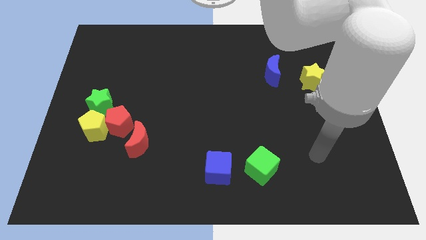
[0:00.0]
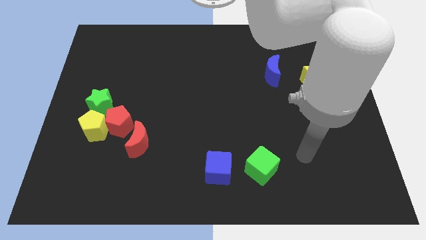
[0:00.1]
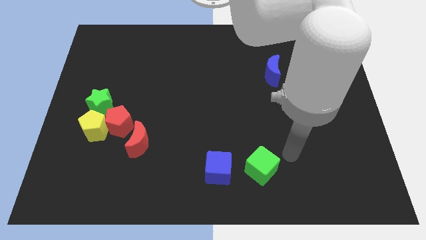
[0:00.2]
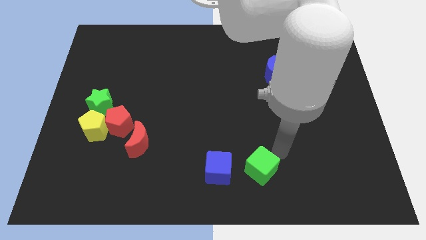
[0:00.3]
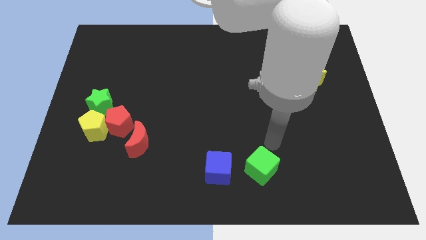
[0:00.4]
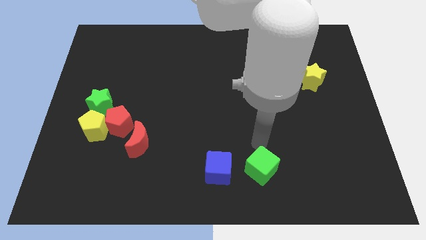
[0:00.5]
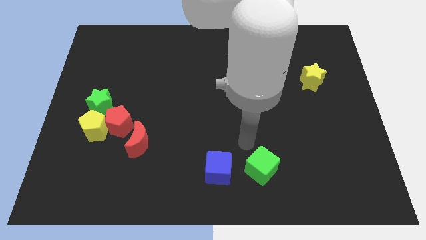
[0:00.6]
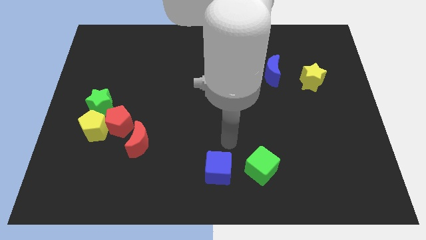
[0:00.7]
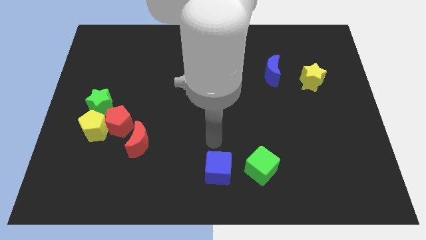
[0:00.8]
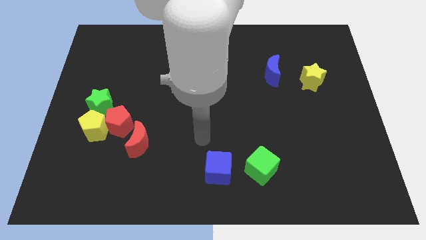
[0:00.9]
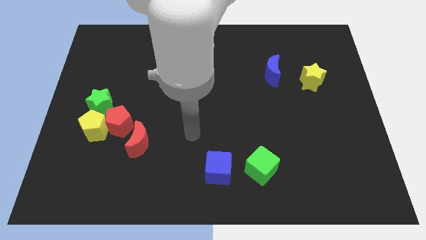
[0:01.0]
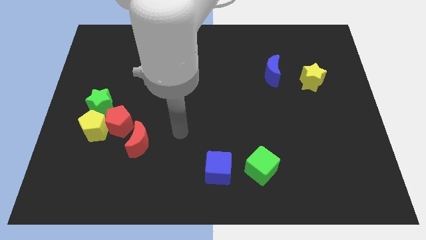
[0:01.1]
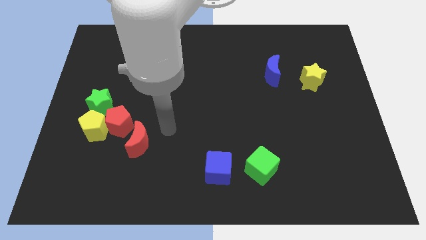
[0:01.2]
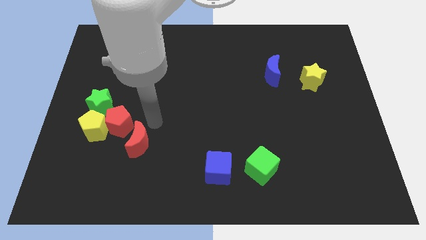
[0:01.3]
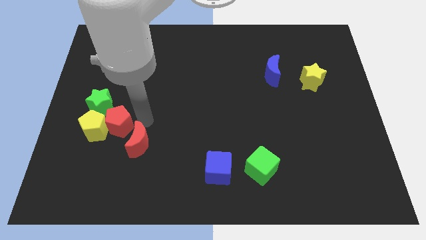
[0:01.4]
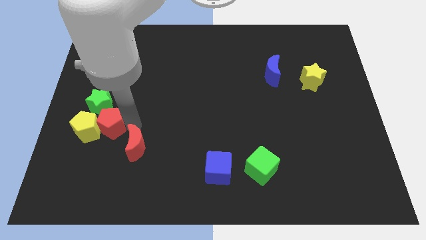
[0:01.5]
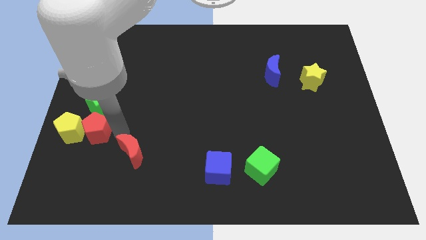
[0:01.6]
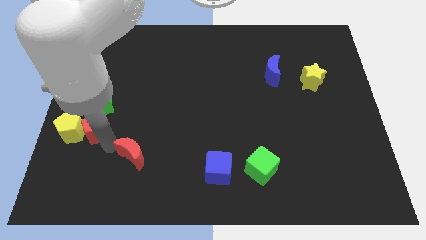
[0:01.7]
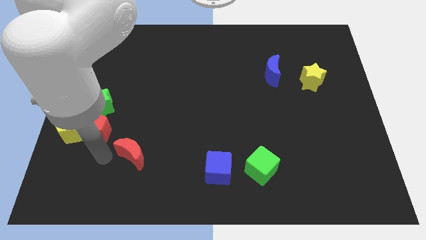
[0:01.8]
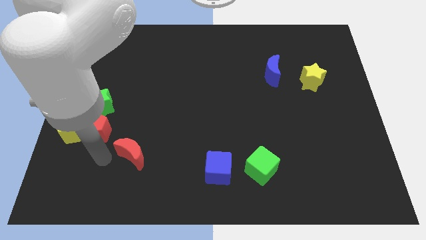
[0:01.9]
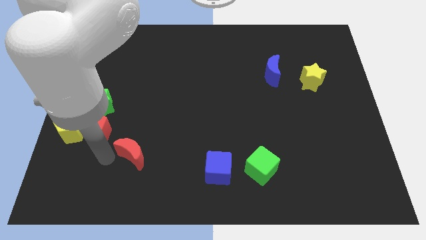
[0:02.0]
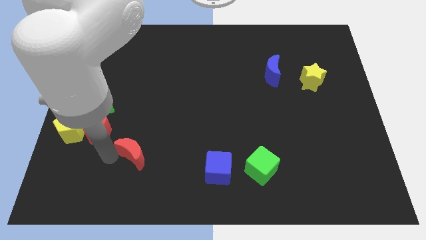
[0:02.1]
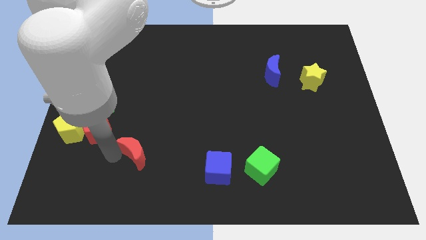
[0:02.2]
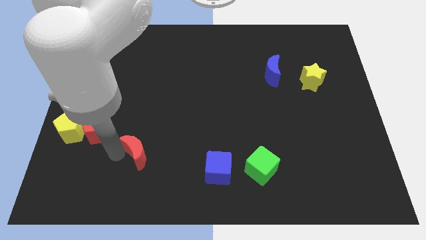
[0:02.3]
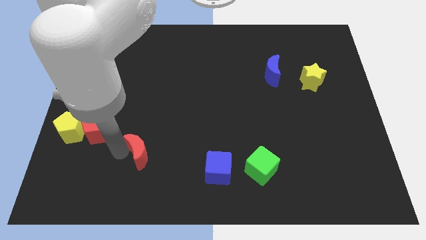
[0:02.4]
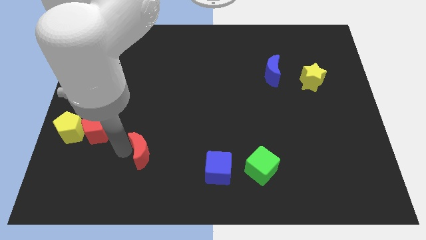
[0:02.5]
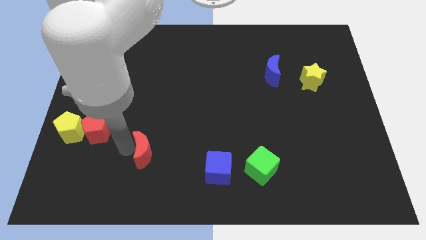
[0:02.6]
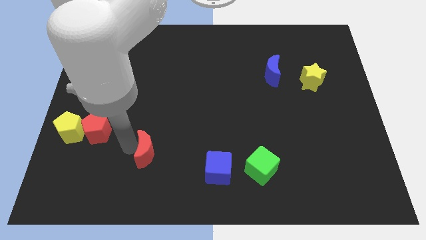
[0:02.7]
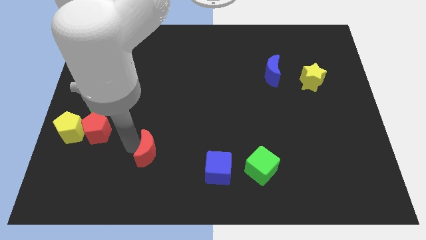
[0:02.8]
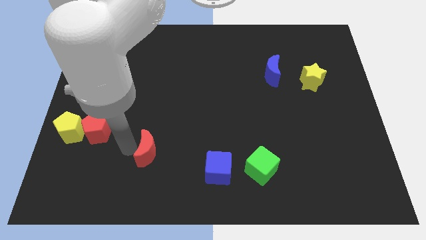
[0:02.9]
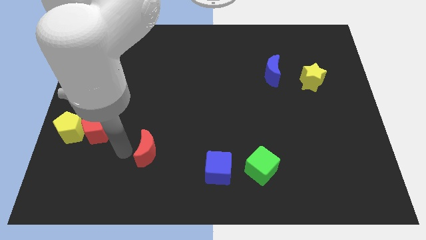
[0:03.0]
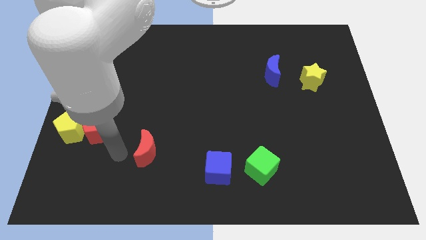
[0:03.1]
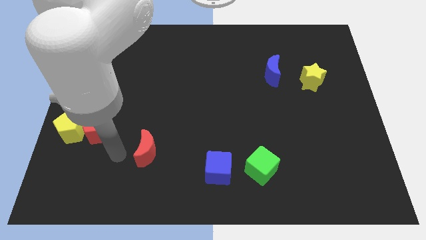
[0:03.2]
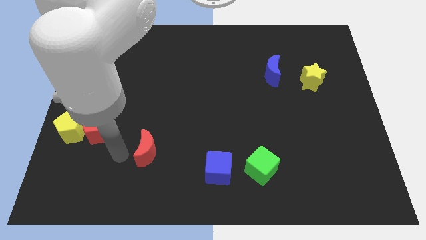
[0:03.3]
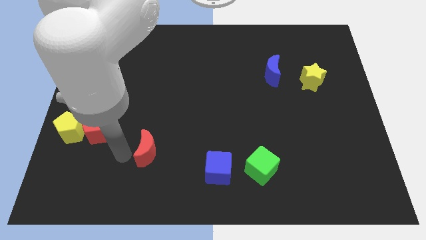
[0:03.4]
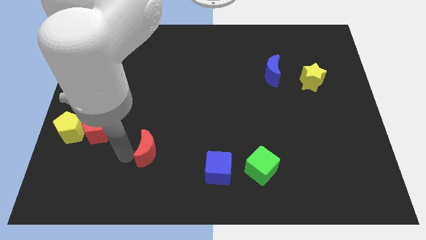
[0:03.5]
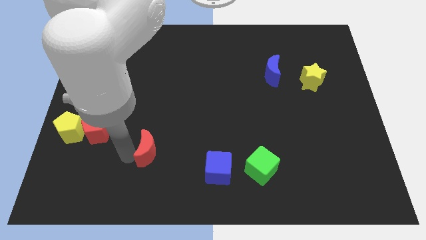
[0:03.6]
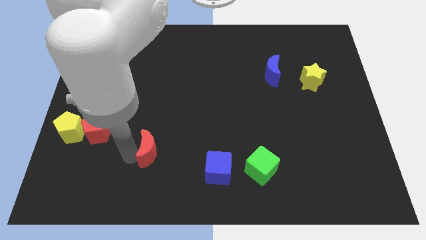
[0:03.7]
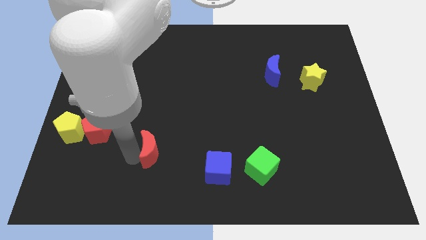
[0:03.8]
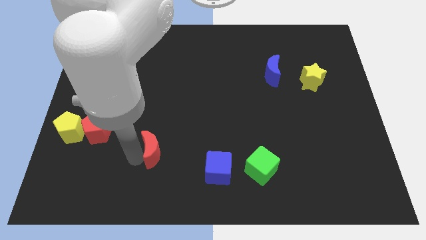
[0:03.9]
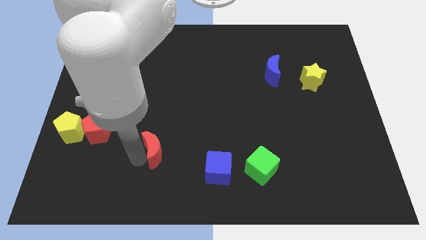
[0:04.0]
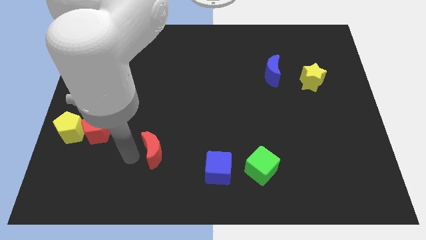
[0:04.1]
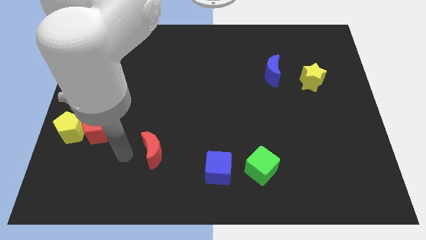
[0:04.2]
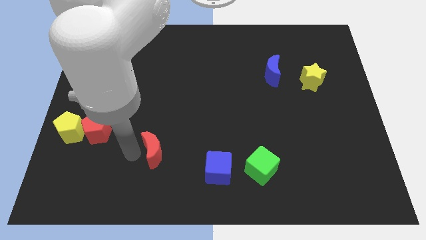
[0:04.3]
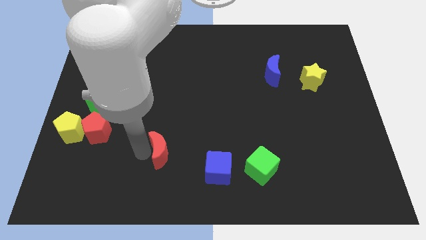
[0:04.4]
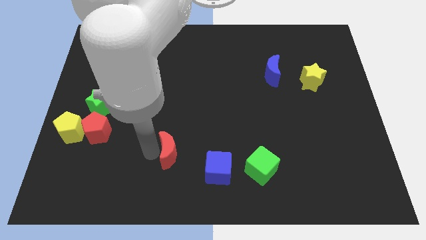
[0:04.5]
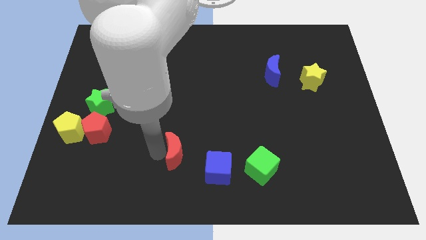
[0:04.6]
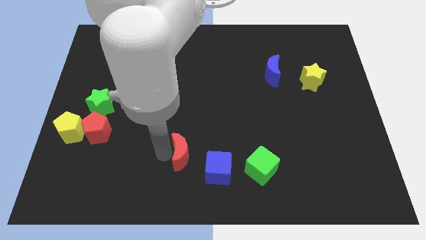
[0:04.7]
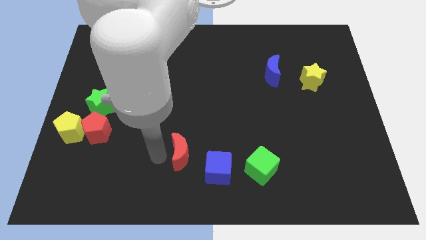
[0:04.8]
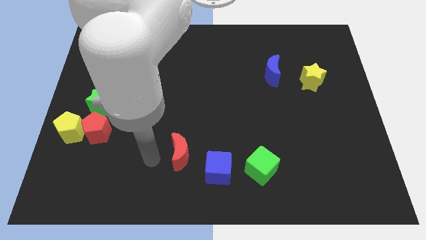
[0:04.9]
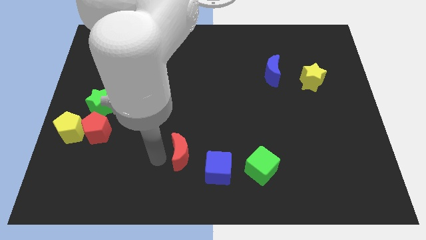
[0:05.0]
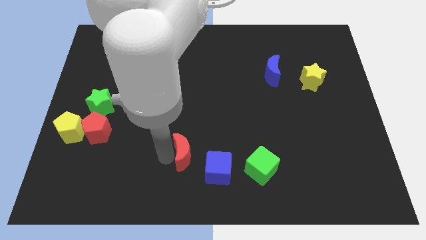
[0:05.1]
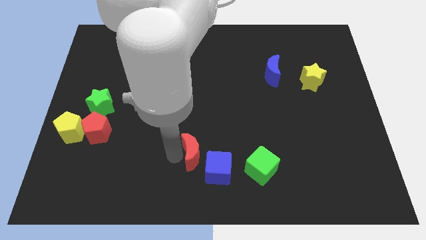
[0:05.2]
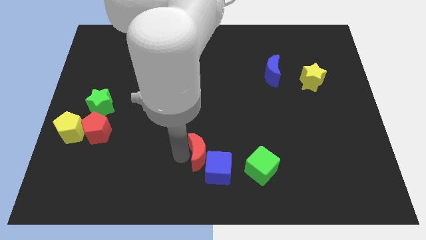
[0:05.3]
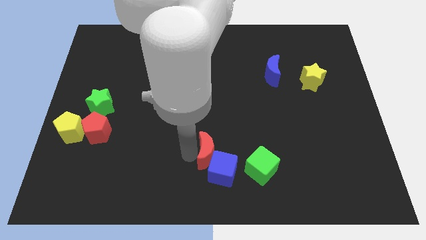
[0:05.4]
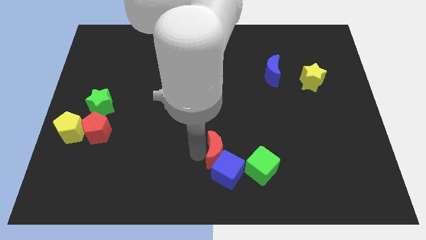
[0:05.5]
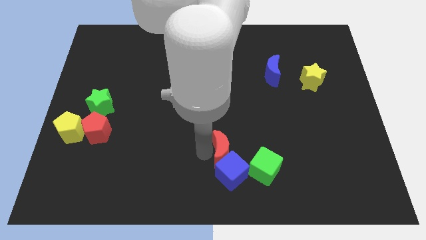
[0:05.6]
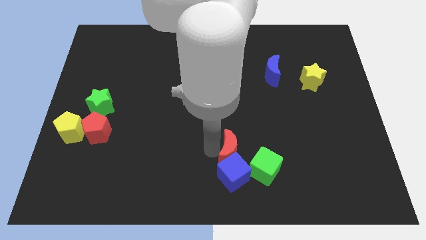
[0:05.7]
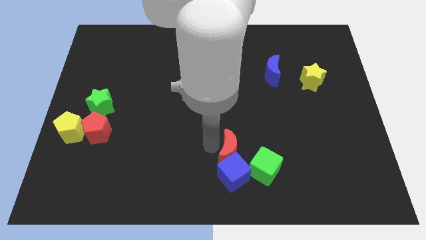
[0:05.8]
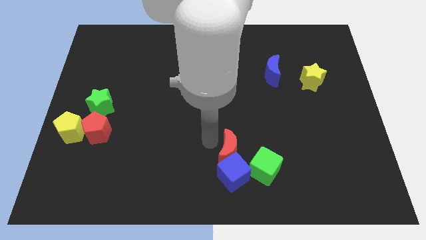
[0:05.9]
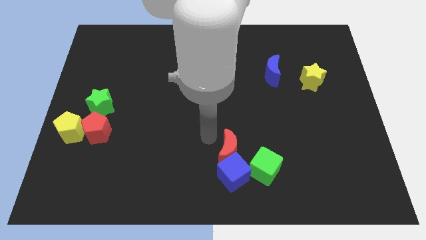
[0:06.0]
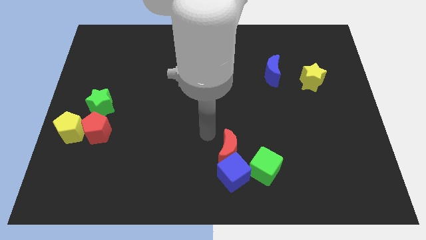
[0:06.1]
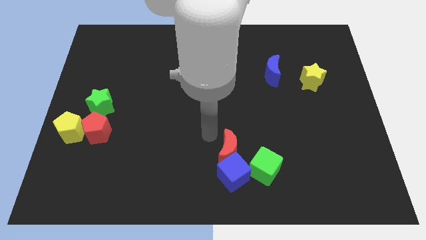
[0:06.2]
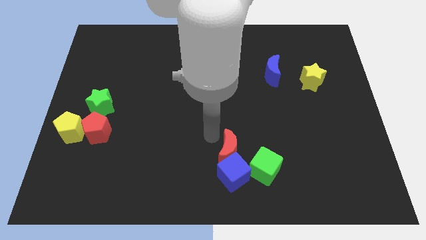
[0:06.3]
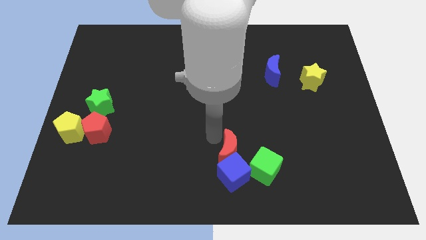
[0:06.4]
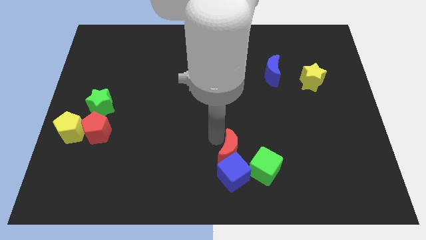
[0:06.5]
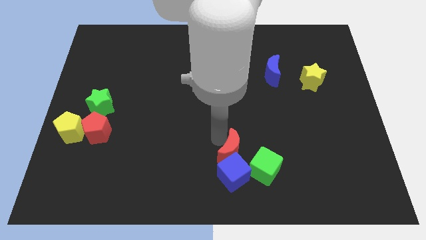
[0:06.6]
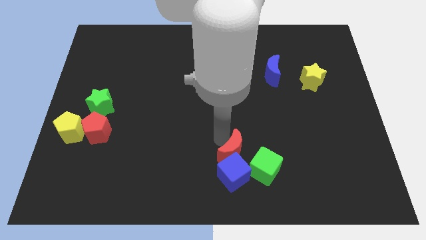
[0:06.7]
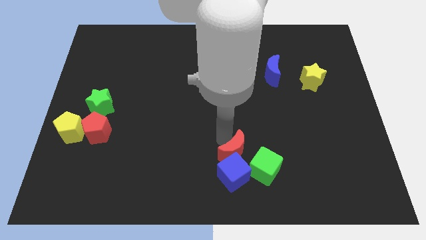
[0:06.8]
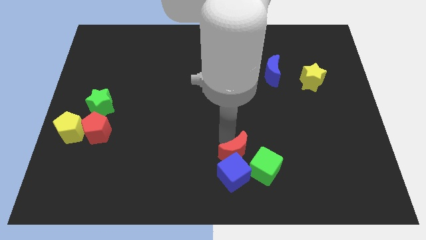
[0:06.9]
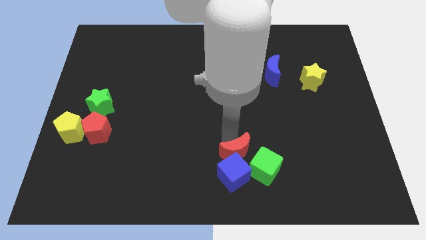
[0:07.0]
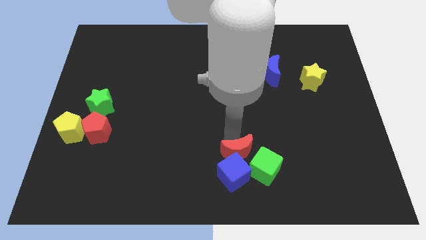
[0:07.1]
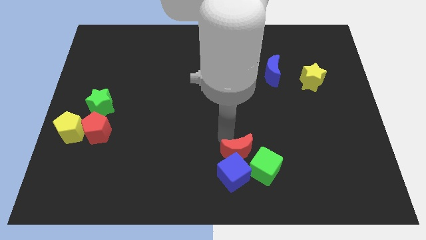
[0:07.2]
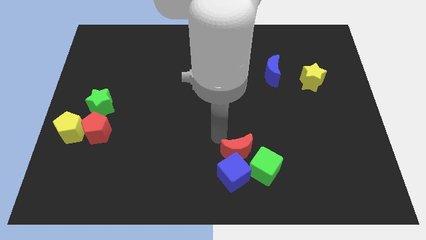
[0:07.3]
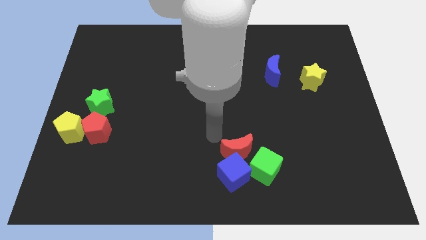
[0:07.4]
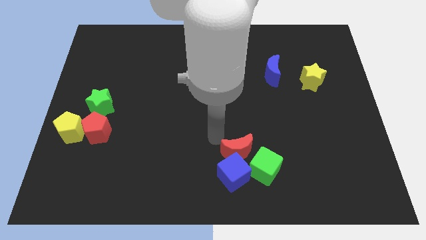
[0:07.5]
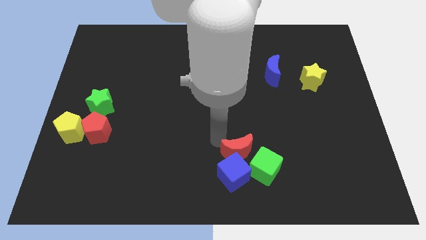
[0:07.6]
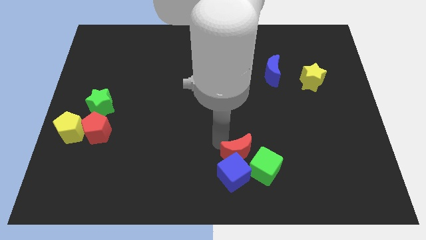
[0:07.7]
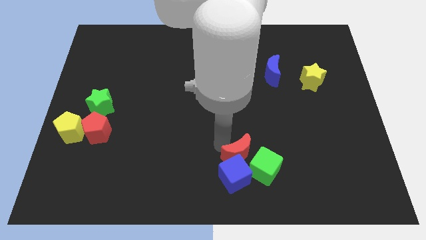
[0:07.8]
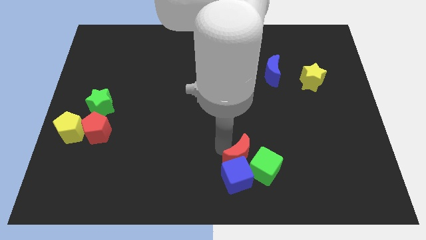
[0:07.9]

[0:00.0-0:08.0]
move the red moon next to the green cube

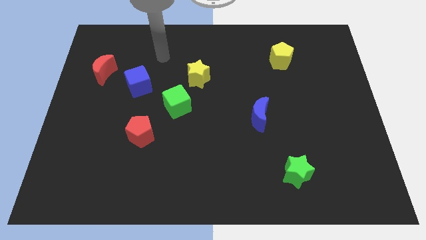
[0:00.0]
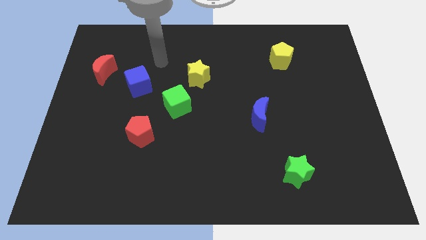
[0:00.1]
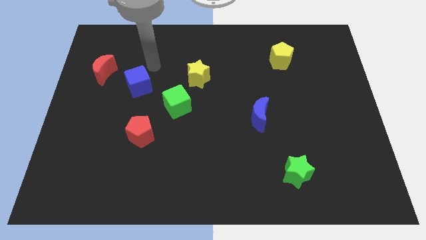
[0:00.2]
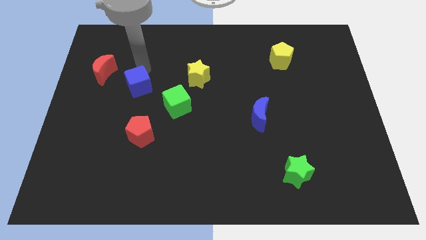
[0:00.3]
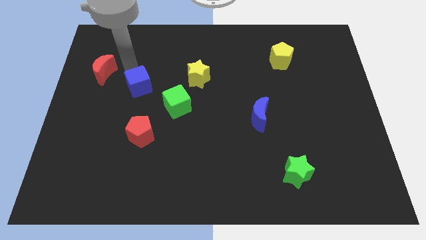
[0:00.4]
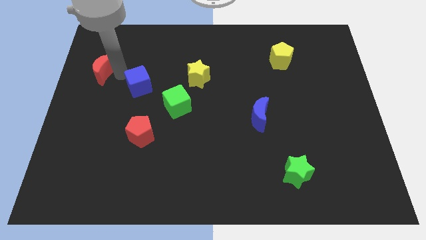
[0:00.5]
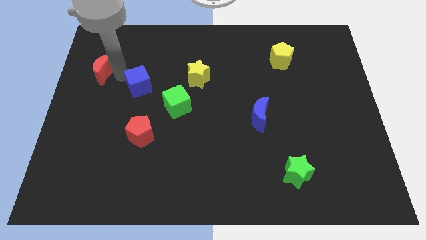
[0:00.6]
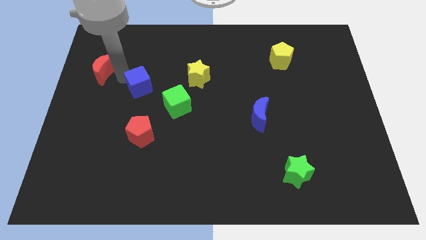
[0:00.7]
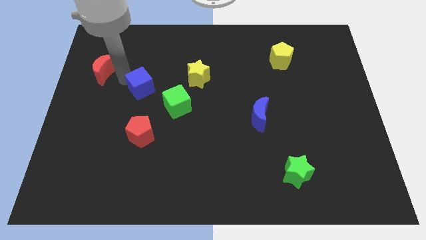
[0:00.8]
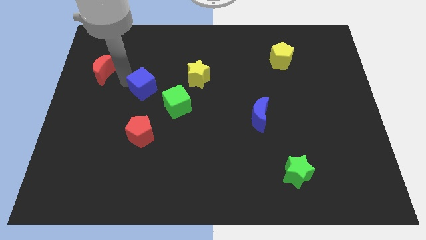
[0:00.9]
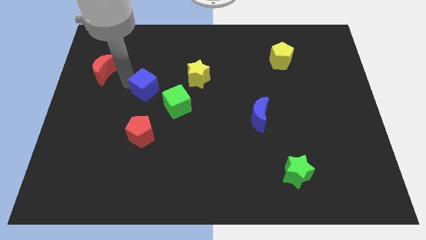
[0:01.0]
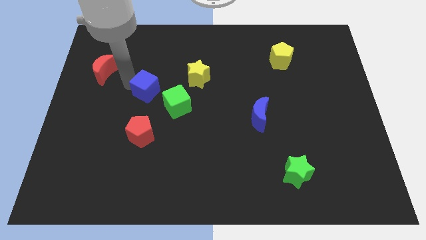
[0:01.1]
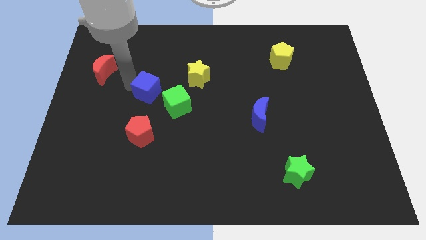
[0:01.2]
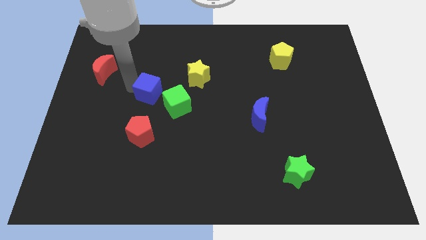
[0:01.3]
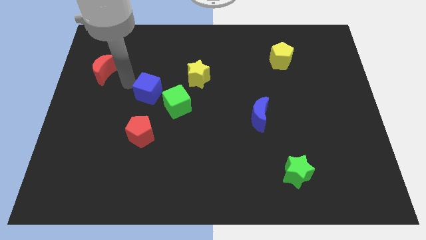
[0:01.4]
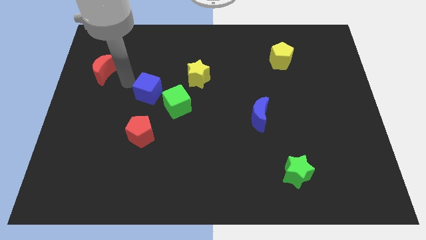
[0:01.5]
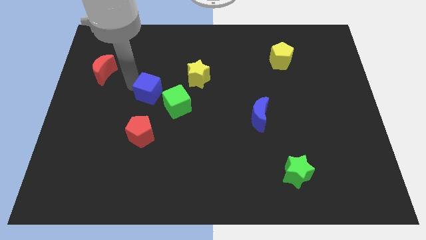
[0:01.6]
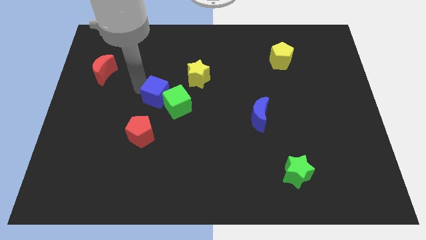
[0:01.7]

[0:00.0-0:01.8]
put the blue cube next to the green cube
